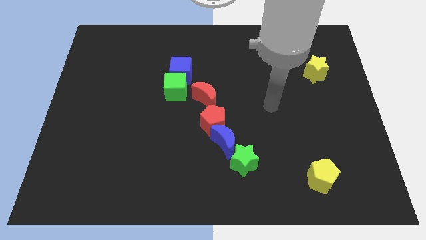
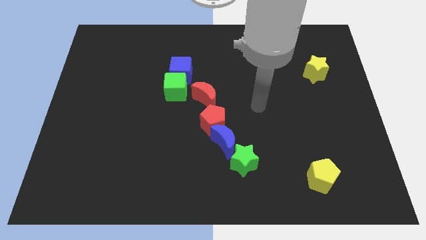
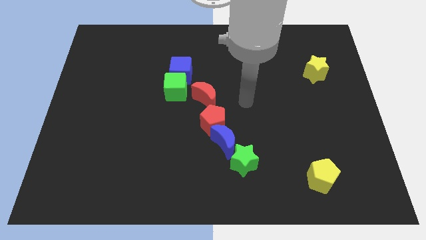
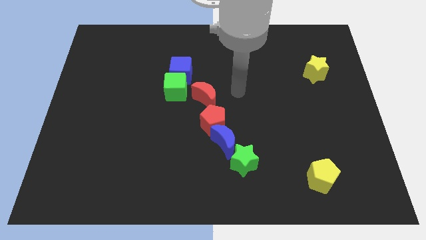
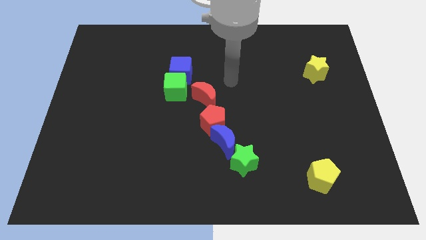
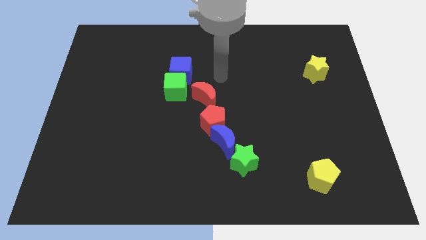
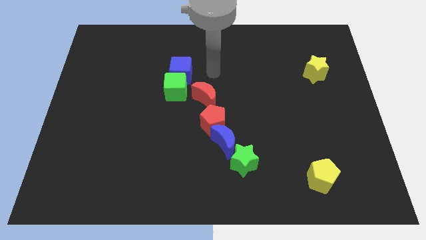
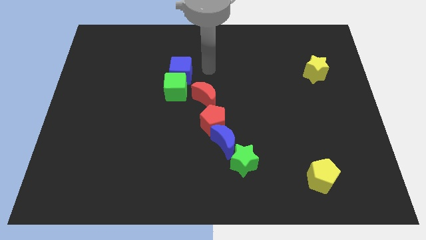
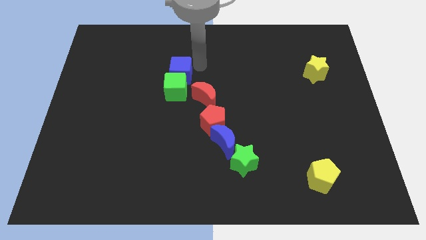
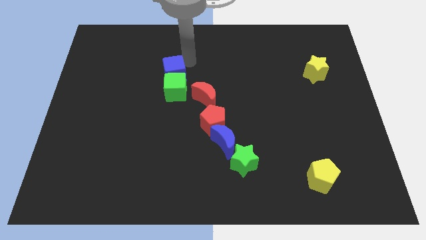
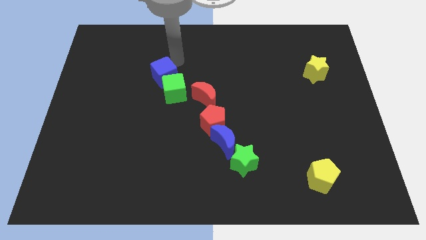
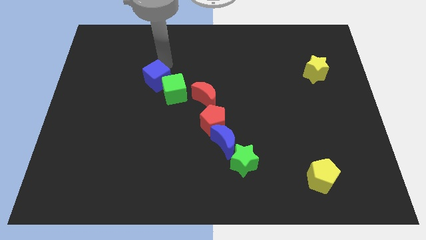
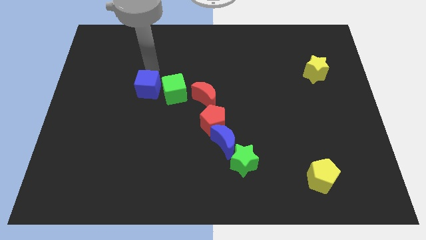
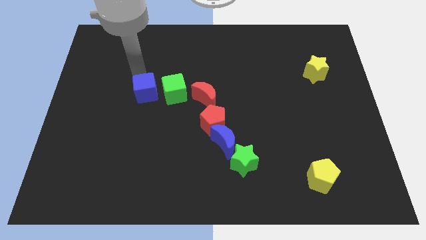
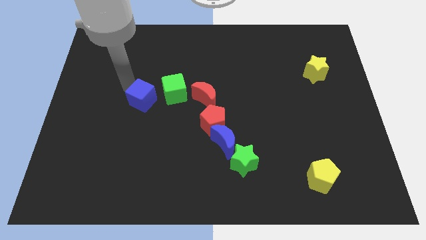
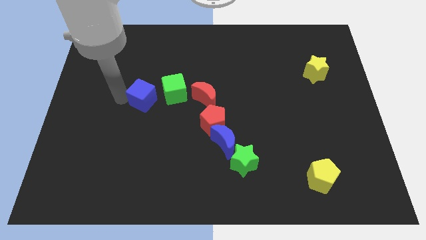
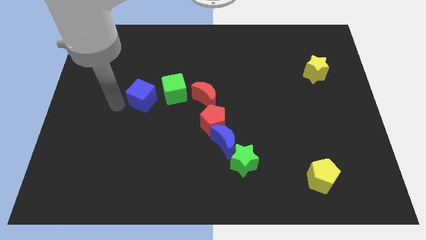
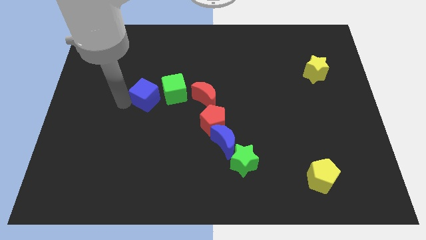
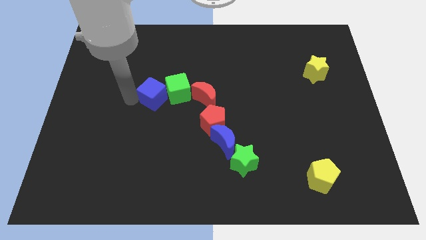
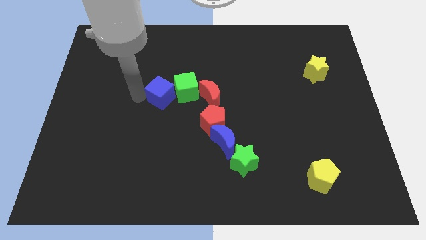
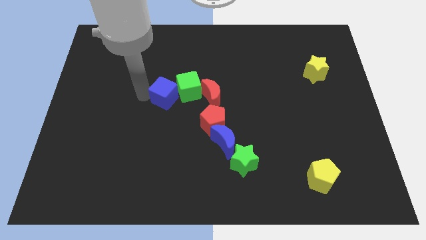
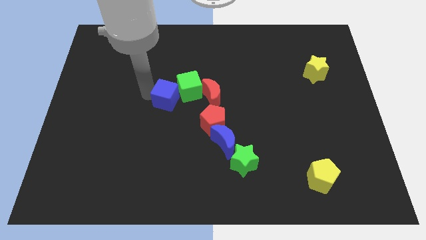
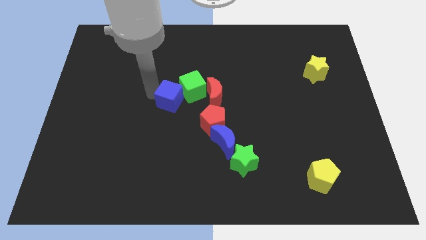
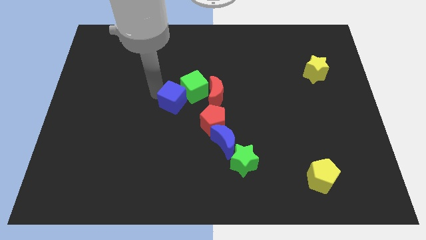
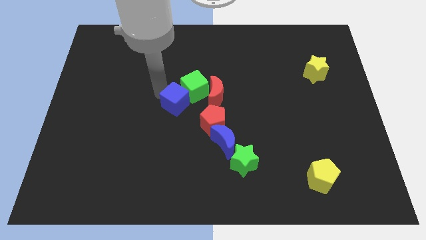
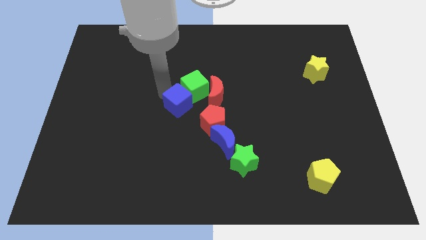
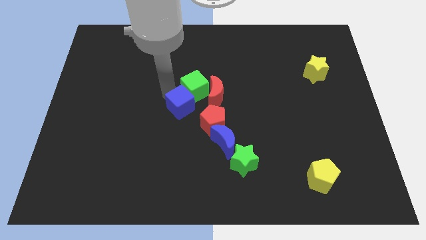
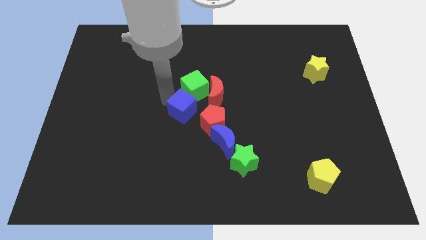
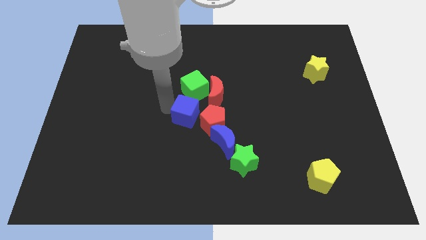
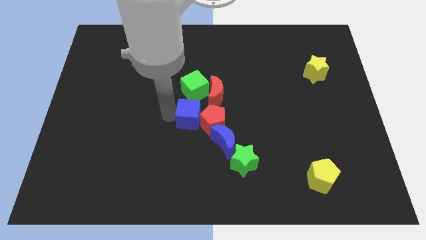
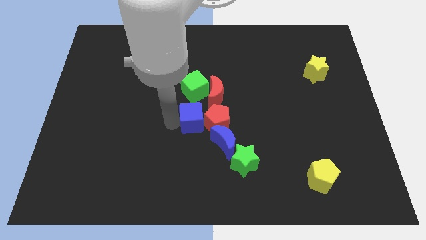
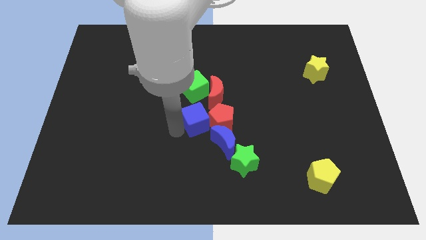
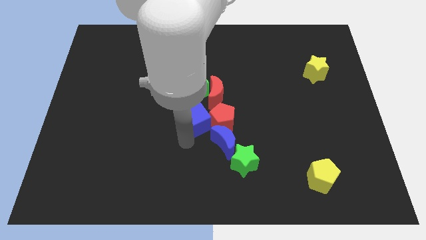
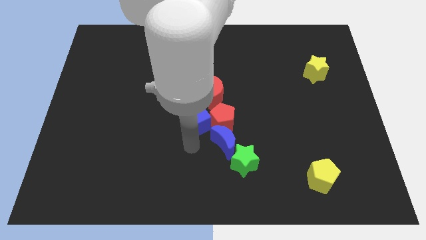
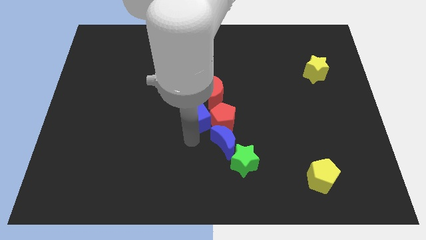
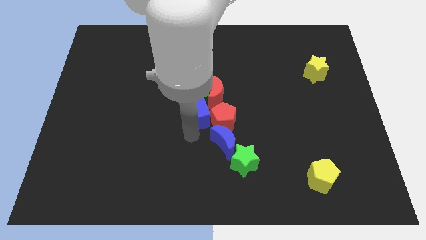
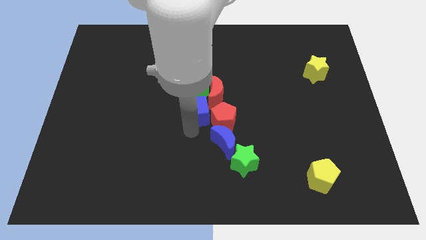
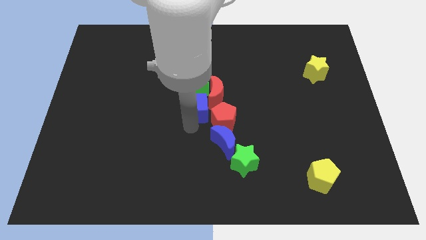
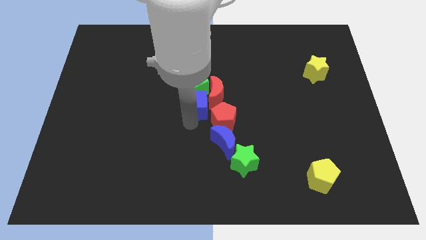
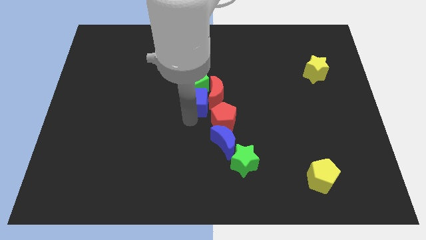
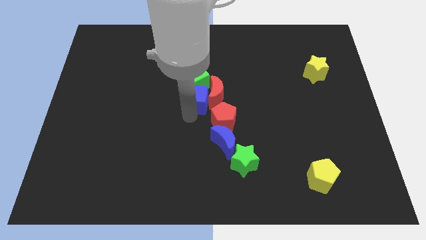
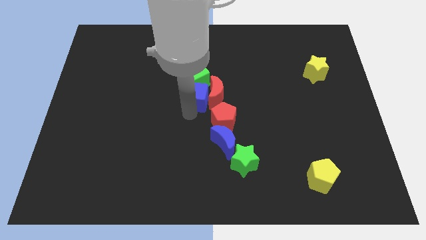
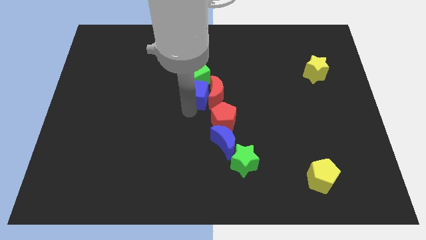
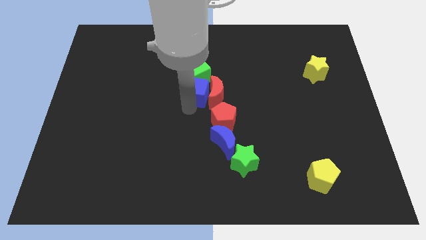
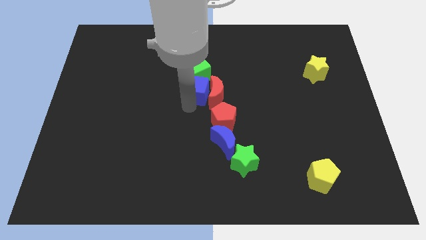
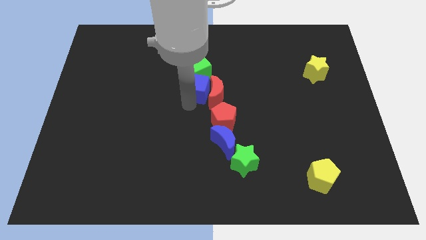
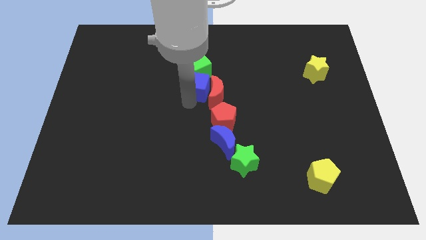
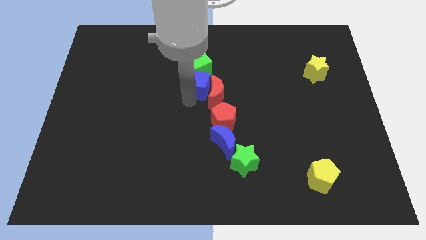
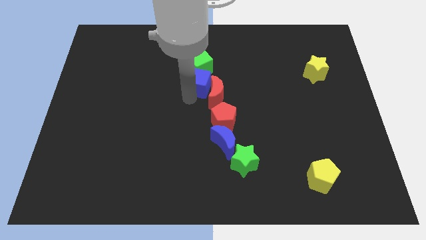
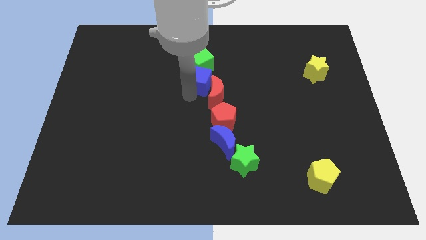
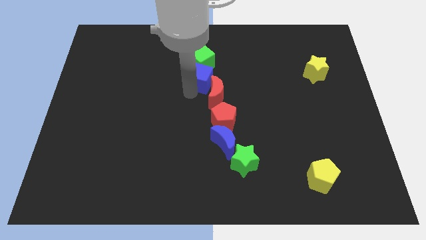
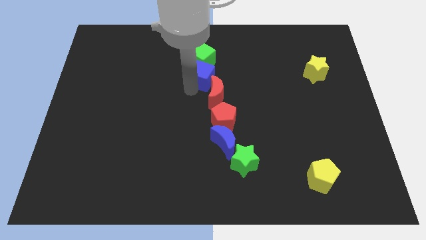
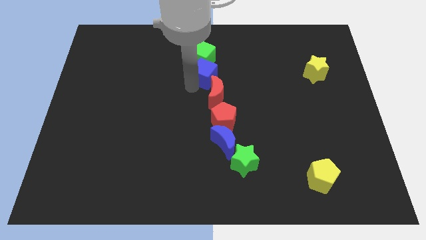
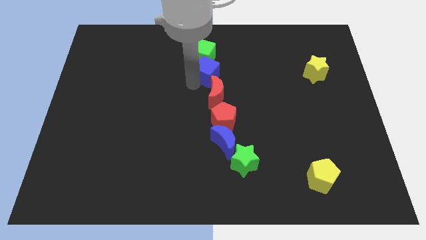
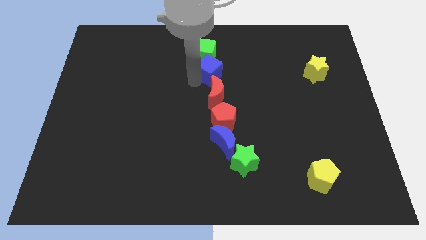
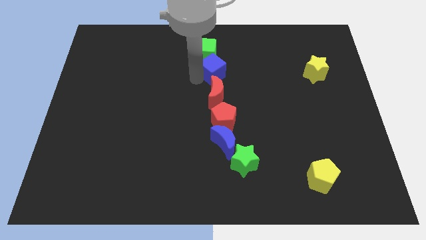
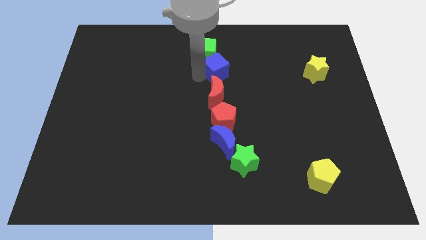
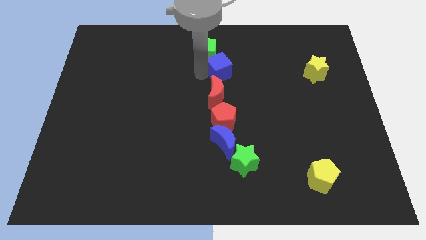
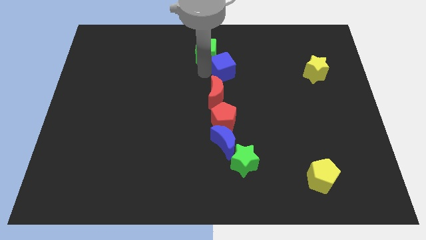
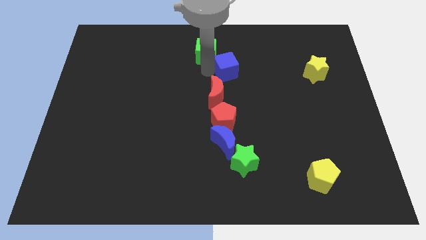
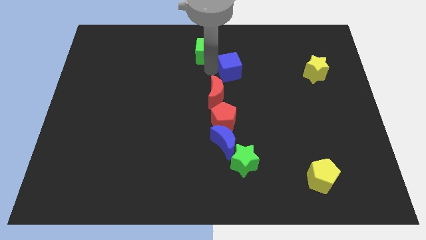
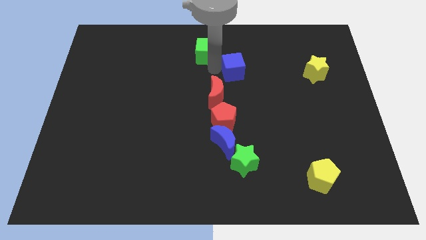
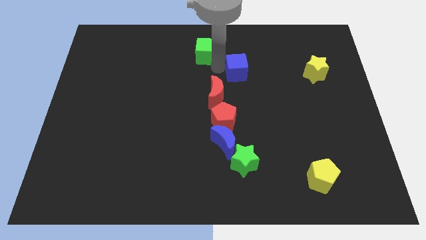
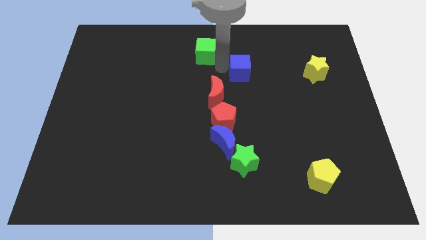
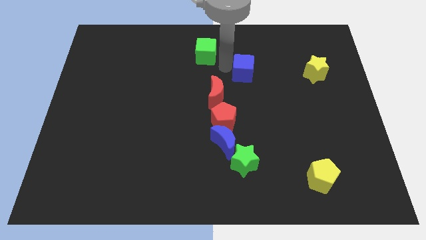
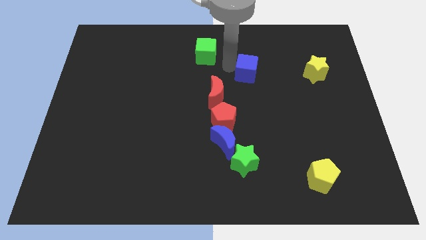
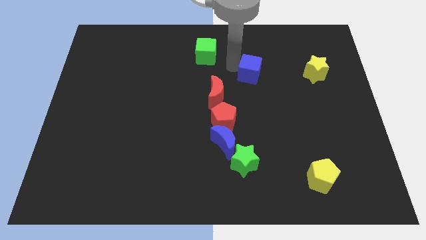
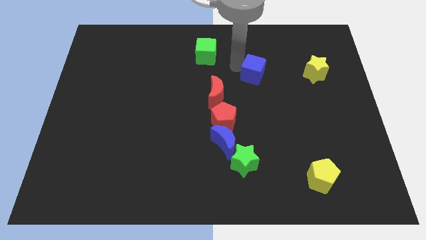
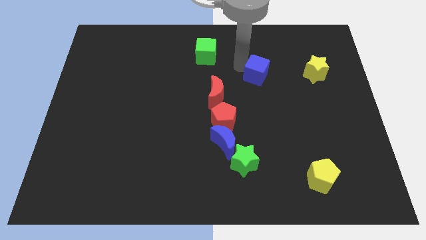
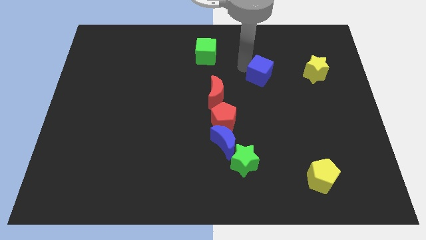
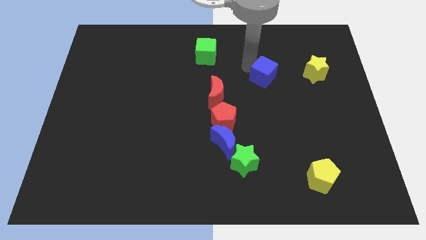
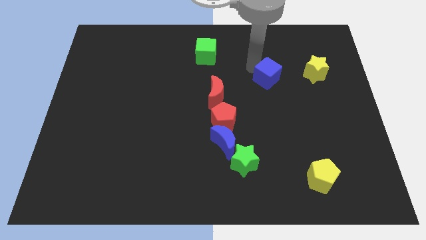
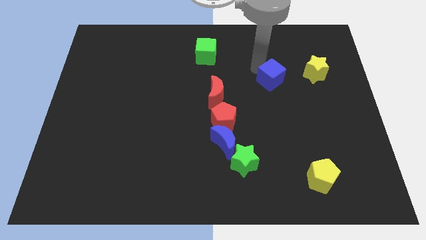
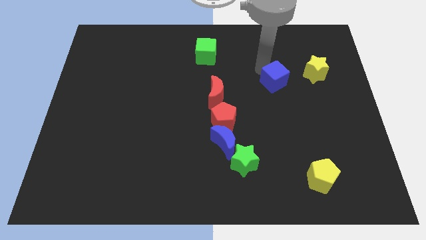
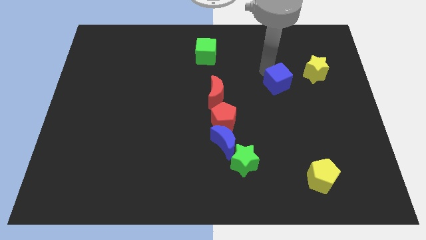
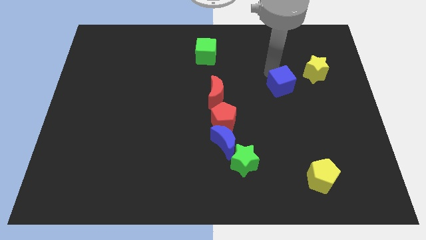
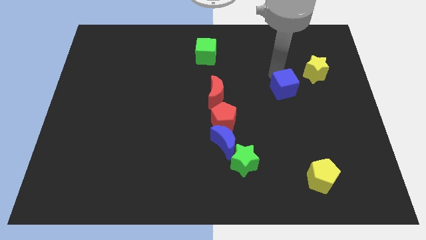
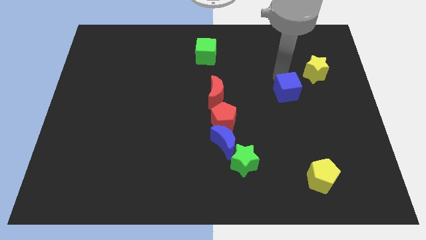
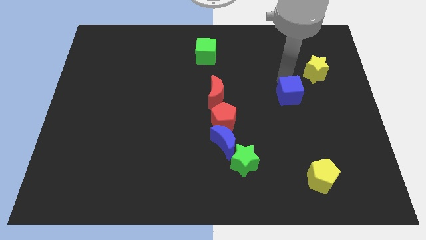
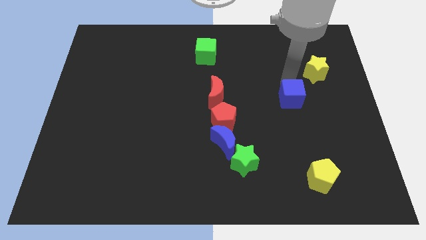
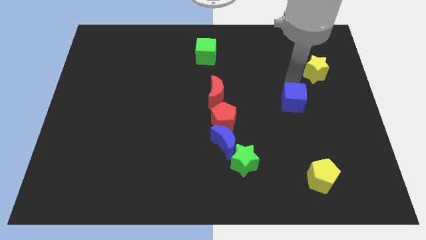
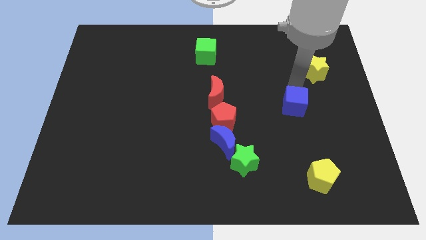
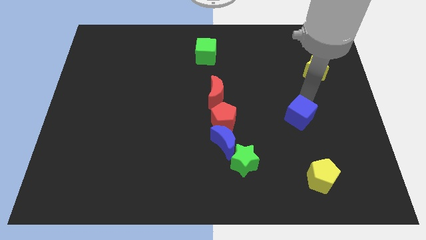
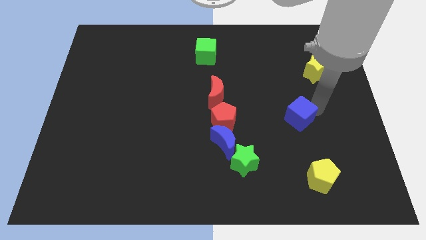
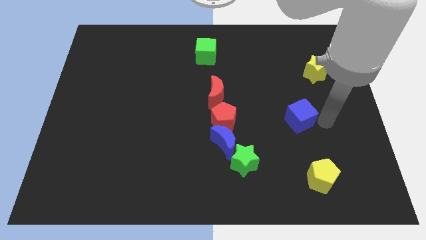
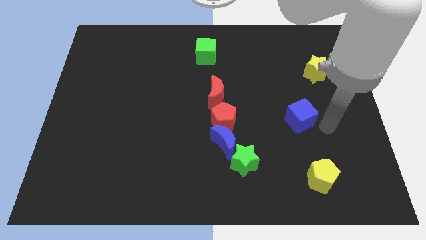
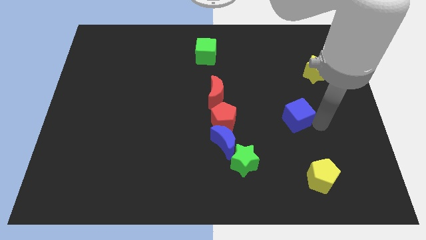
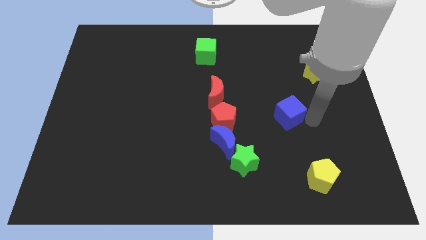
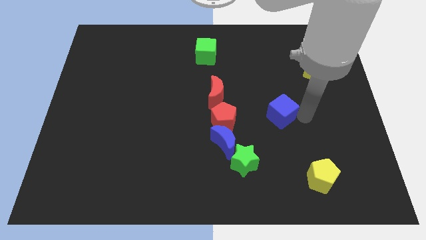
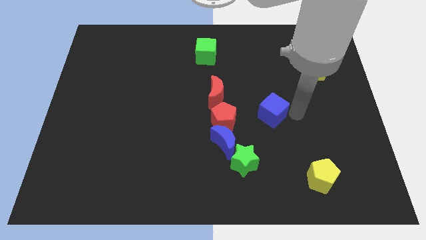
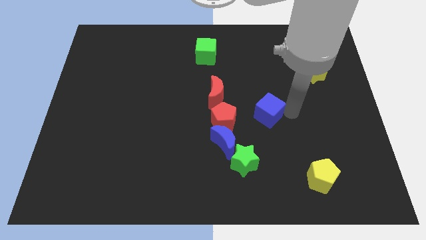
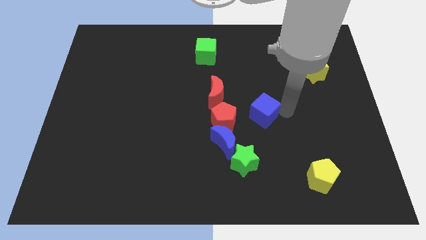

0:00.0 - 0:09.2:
slide the blue cube diagonally up and to the right of the blue moon
